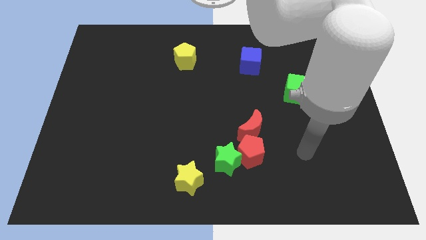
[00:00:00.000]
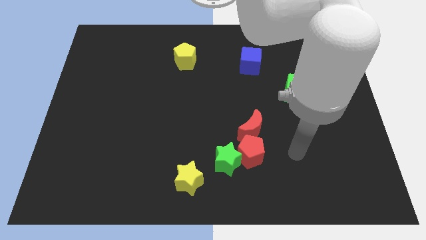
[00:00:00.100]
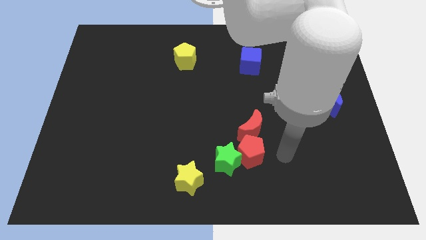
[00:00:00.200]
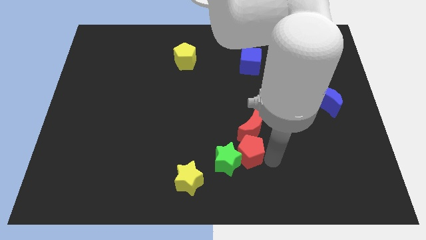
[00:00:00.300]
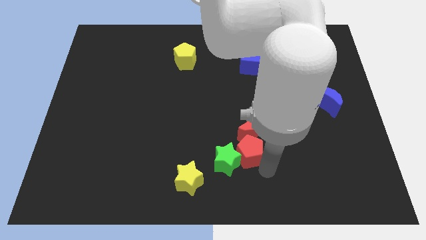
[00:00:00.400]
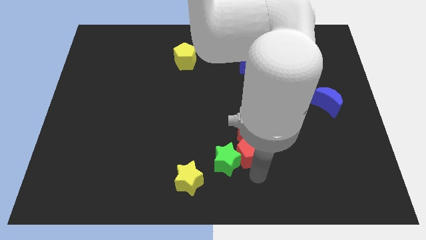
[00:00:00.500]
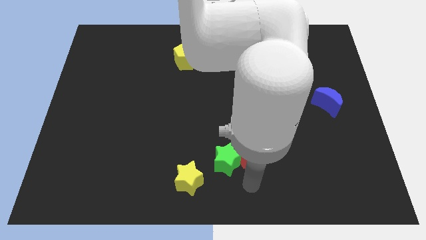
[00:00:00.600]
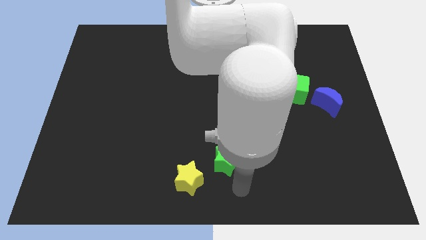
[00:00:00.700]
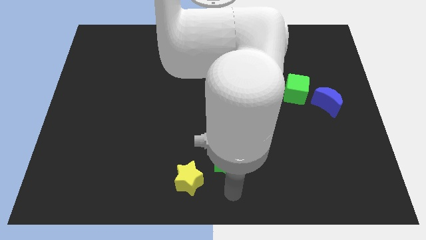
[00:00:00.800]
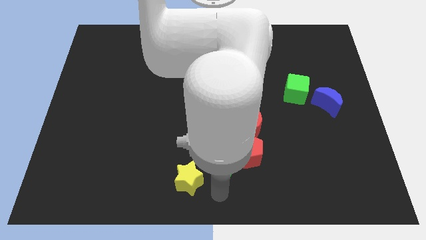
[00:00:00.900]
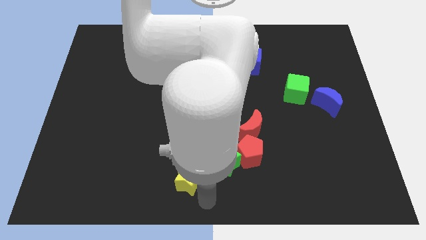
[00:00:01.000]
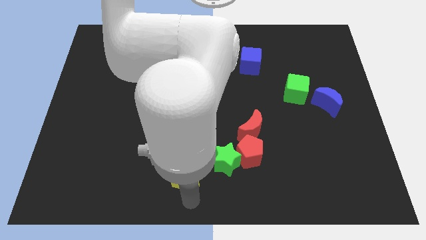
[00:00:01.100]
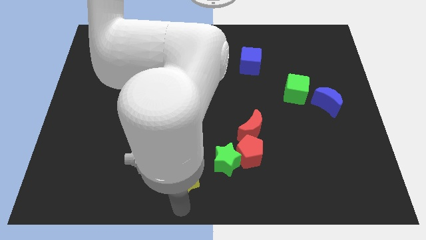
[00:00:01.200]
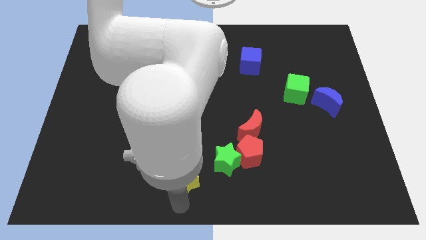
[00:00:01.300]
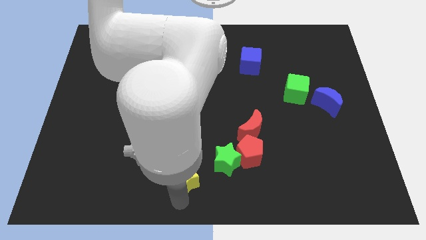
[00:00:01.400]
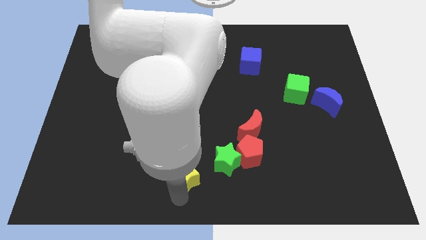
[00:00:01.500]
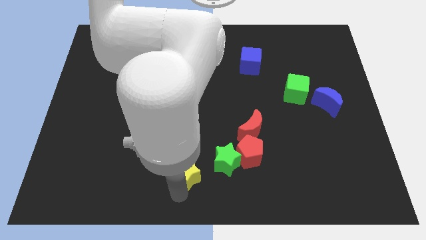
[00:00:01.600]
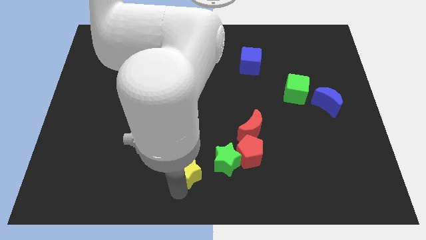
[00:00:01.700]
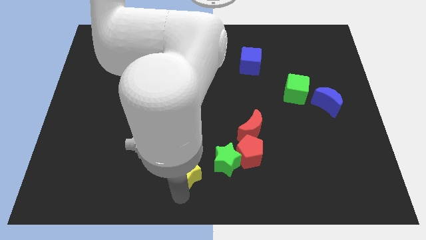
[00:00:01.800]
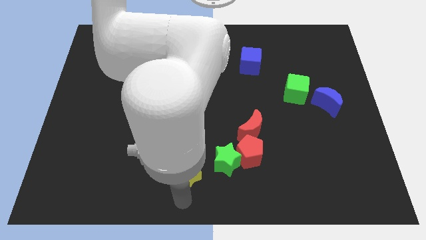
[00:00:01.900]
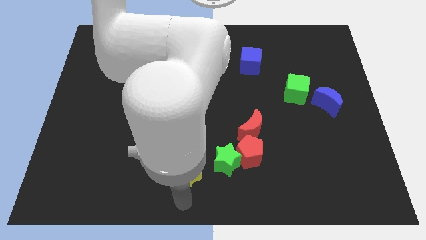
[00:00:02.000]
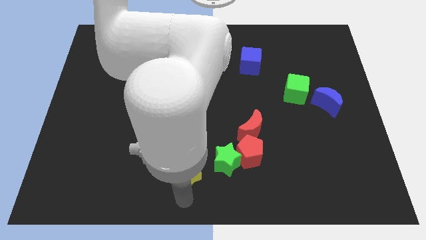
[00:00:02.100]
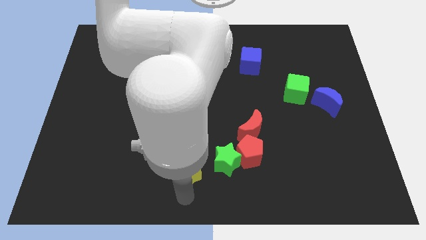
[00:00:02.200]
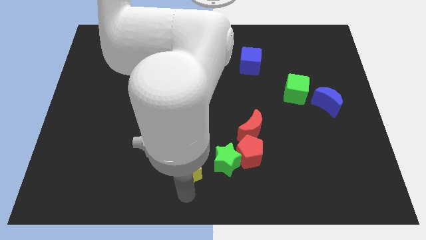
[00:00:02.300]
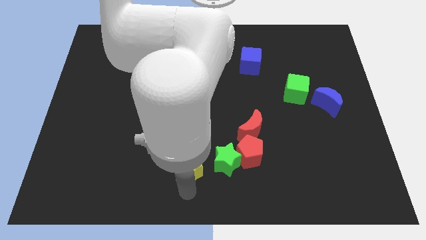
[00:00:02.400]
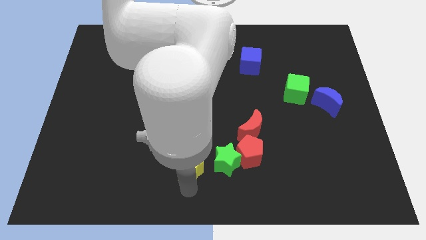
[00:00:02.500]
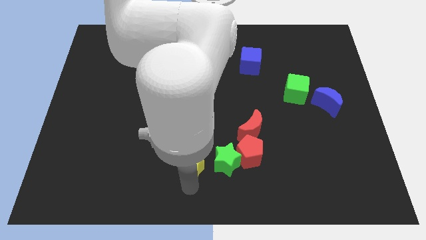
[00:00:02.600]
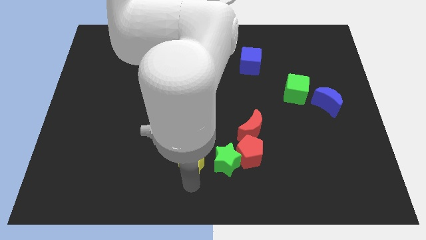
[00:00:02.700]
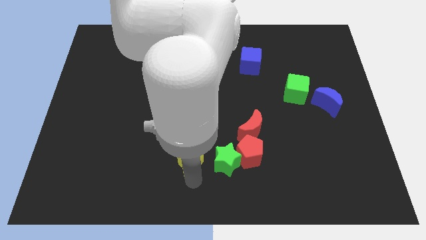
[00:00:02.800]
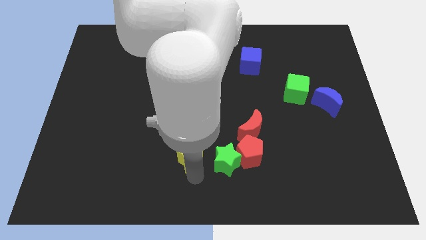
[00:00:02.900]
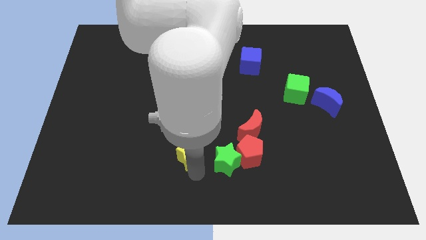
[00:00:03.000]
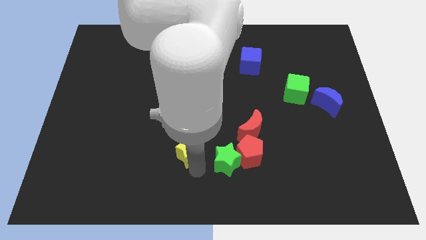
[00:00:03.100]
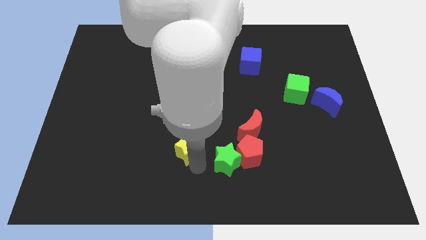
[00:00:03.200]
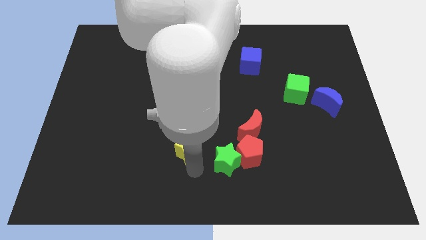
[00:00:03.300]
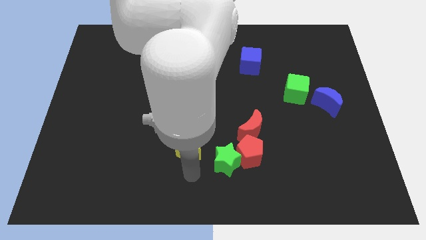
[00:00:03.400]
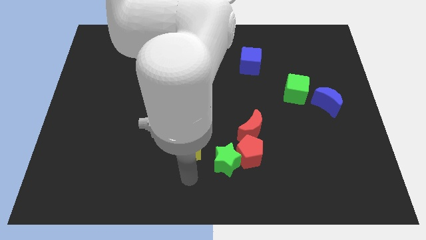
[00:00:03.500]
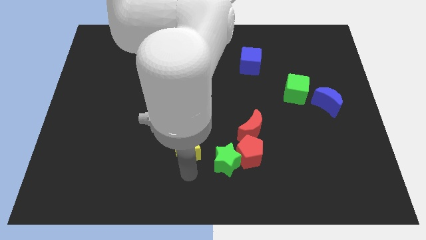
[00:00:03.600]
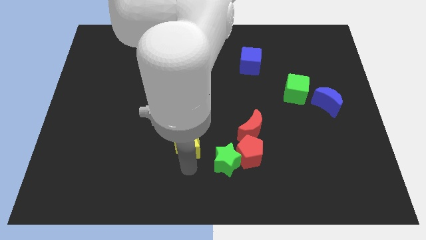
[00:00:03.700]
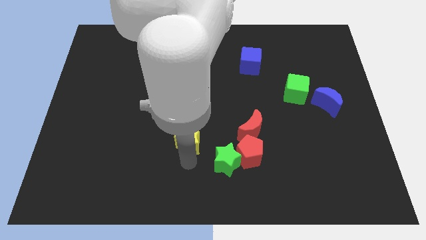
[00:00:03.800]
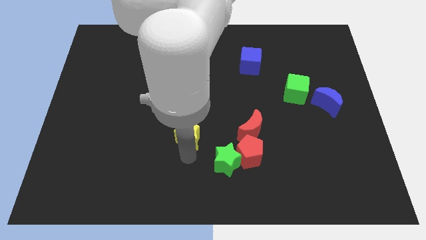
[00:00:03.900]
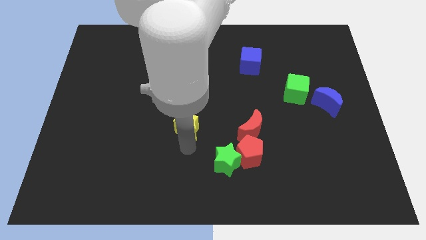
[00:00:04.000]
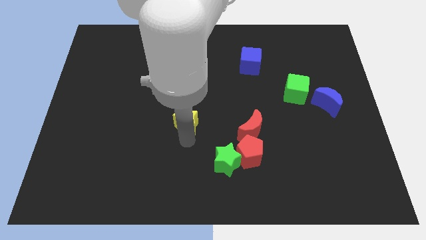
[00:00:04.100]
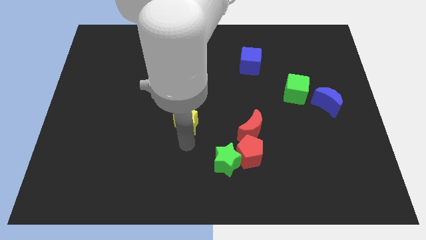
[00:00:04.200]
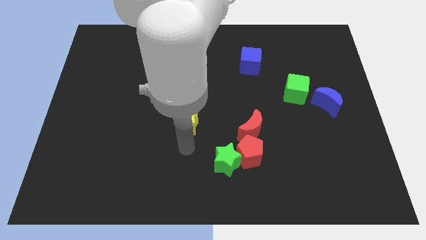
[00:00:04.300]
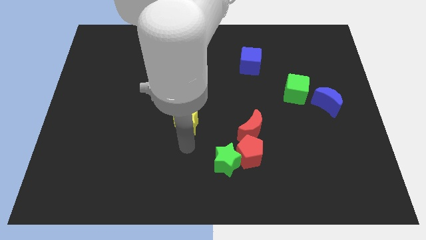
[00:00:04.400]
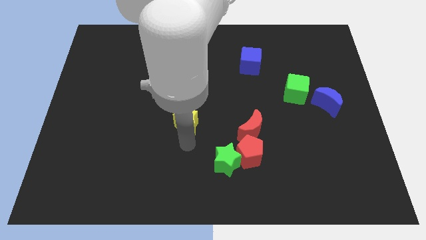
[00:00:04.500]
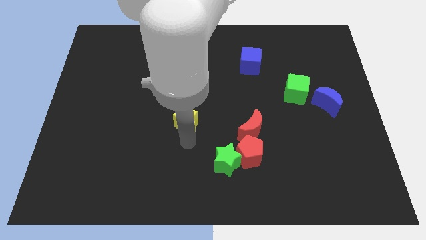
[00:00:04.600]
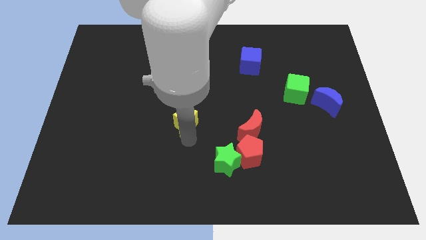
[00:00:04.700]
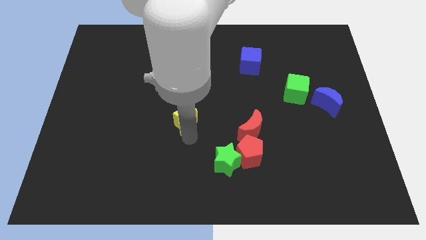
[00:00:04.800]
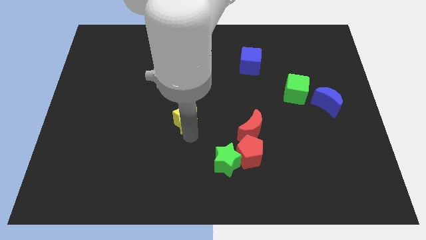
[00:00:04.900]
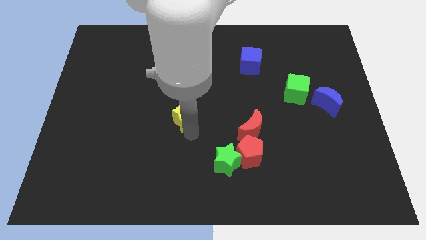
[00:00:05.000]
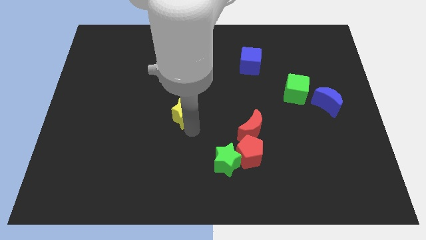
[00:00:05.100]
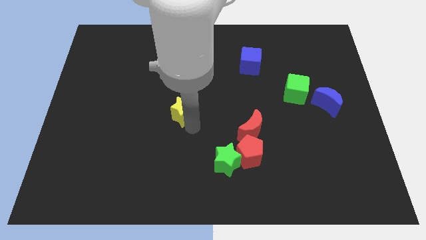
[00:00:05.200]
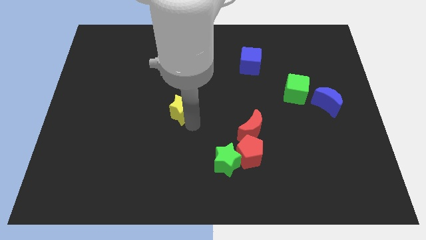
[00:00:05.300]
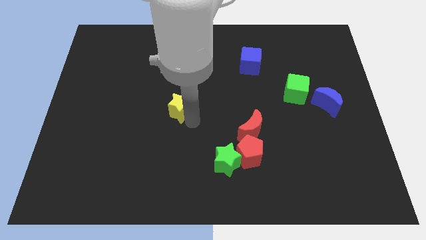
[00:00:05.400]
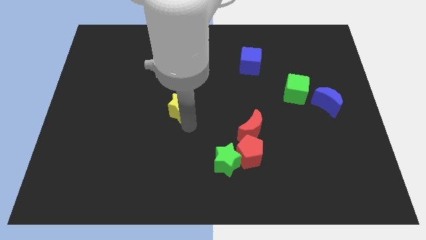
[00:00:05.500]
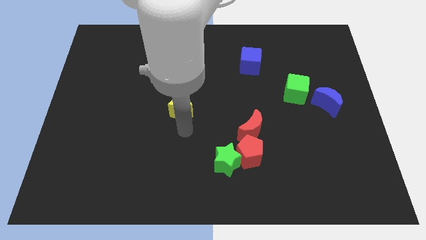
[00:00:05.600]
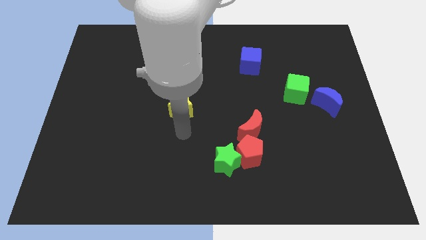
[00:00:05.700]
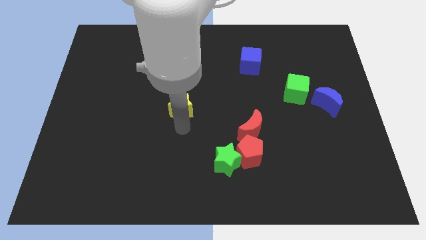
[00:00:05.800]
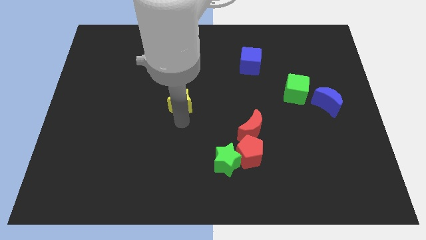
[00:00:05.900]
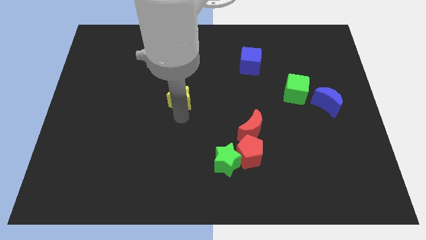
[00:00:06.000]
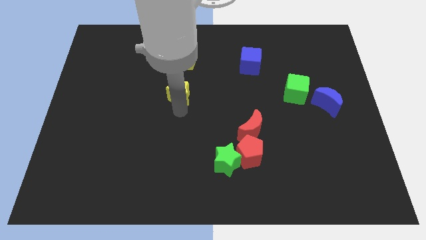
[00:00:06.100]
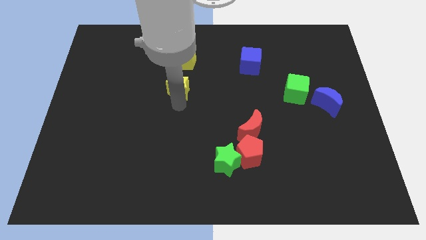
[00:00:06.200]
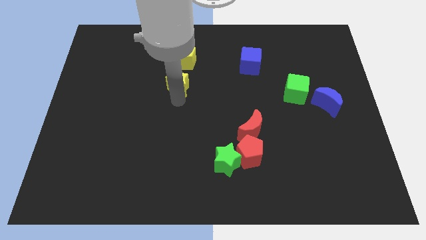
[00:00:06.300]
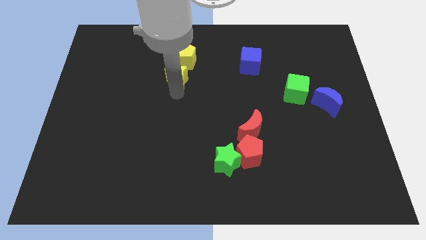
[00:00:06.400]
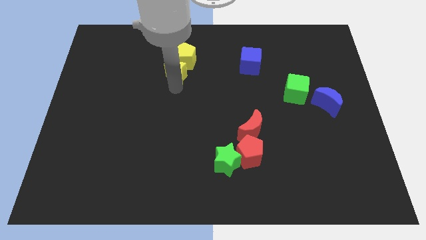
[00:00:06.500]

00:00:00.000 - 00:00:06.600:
slide the yellow star to the yellow pentagon

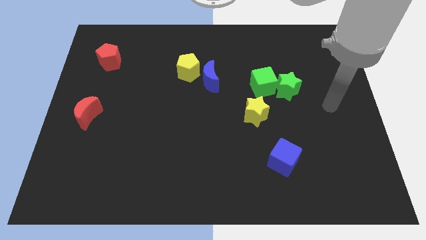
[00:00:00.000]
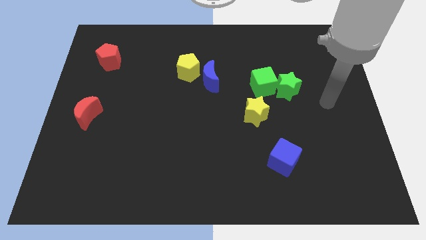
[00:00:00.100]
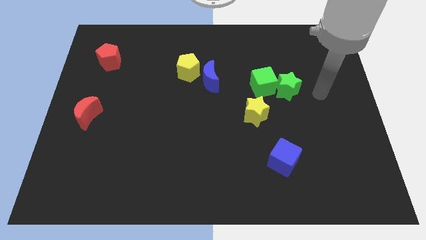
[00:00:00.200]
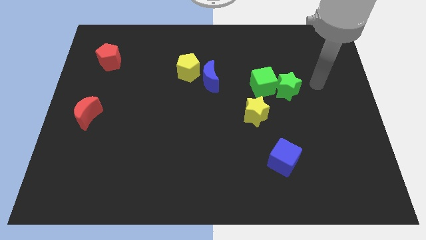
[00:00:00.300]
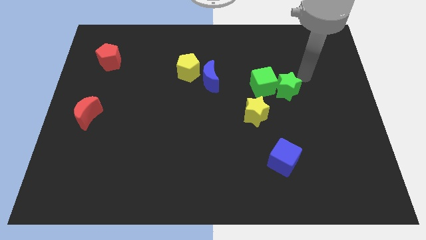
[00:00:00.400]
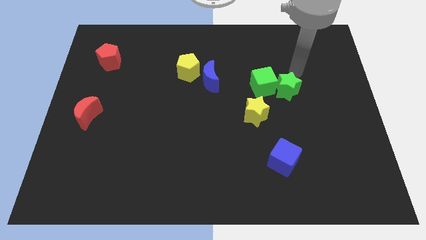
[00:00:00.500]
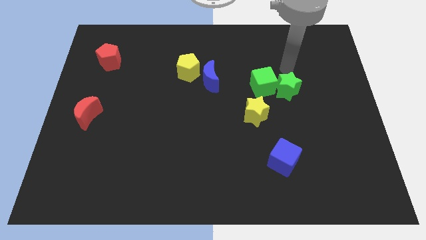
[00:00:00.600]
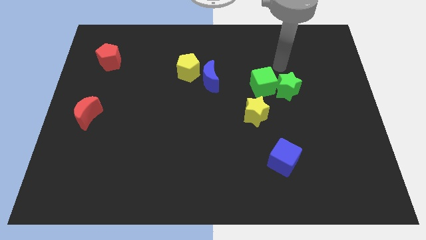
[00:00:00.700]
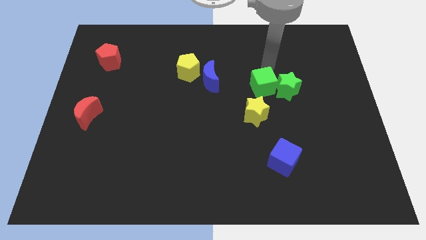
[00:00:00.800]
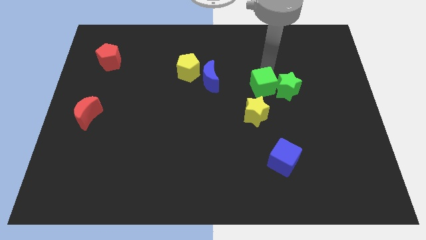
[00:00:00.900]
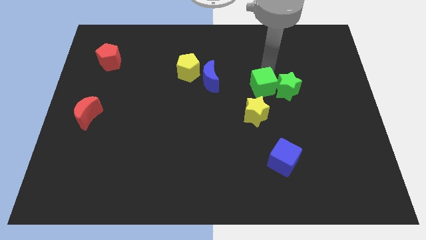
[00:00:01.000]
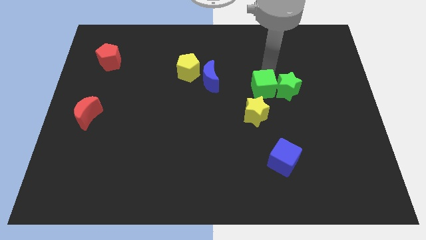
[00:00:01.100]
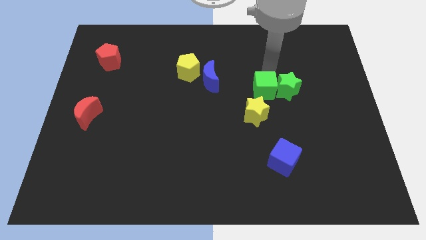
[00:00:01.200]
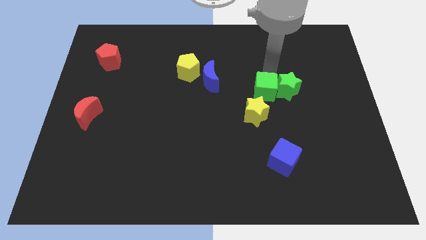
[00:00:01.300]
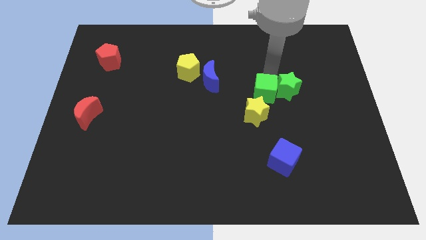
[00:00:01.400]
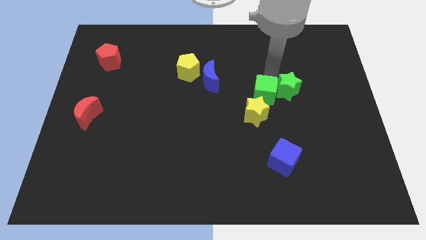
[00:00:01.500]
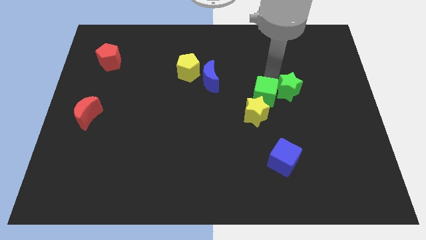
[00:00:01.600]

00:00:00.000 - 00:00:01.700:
move the green cube close to the yellow star
